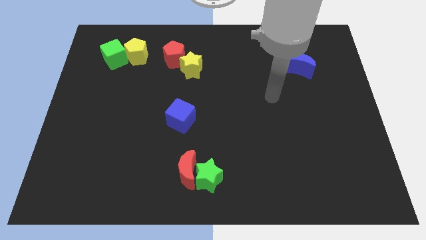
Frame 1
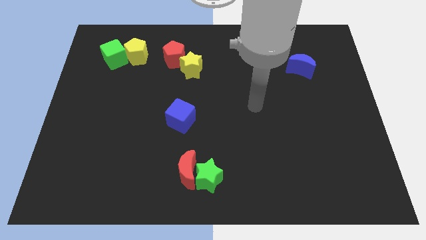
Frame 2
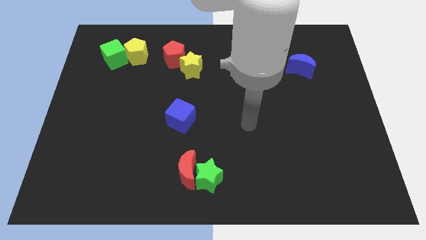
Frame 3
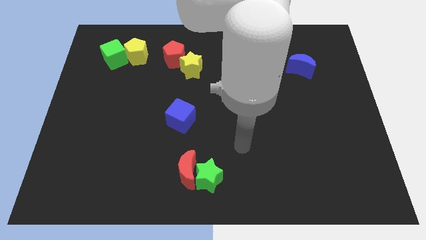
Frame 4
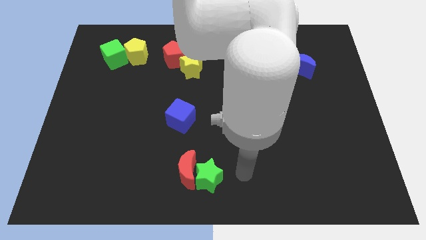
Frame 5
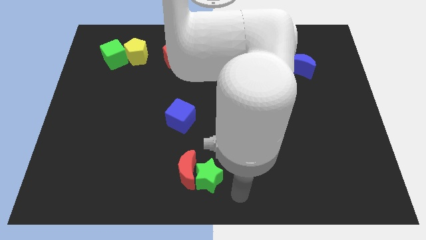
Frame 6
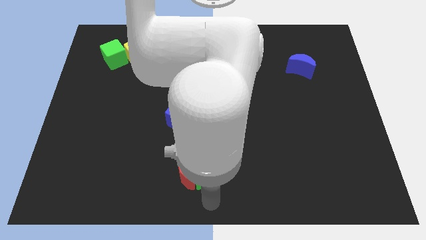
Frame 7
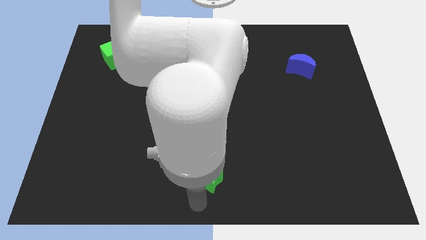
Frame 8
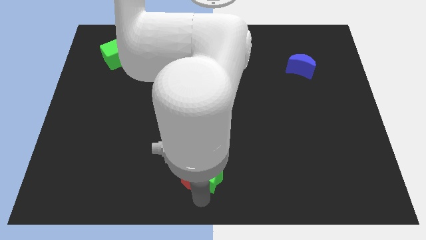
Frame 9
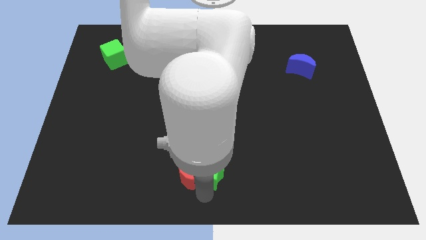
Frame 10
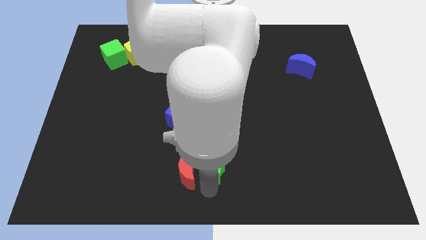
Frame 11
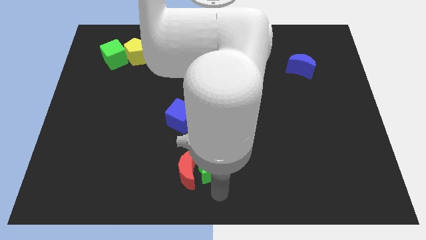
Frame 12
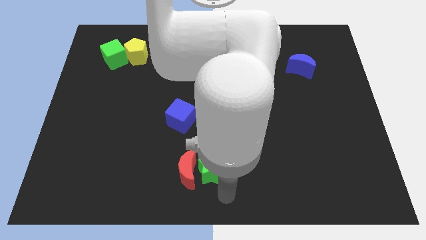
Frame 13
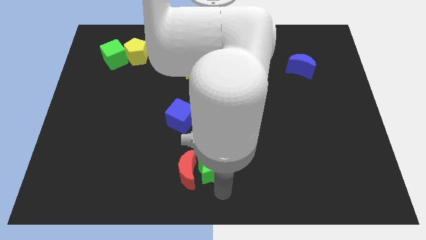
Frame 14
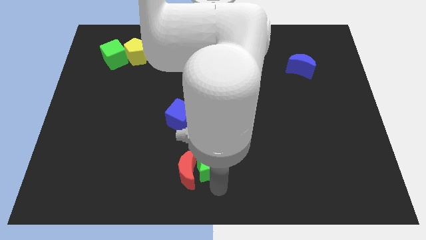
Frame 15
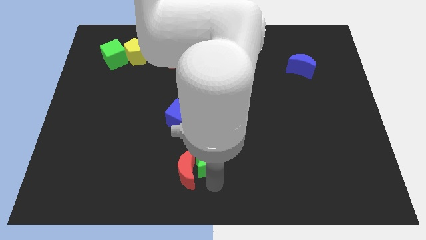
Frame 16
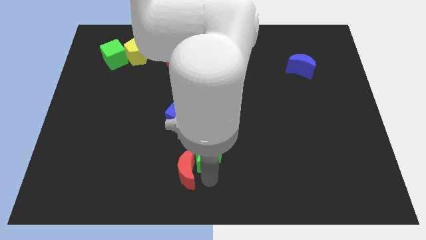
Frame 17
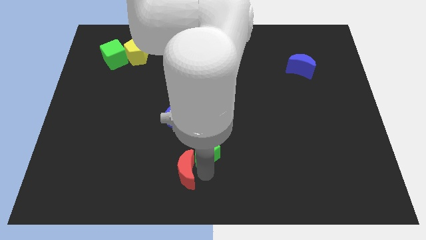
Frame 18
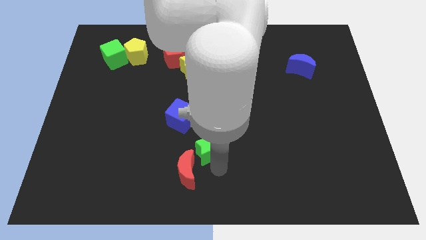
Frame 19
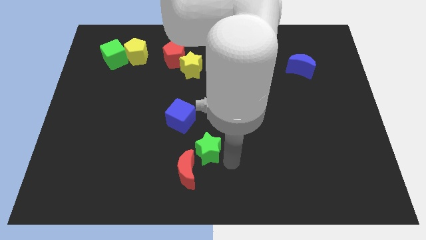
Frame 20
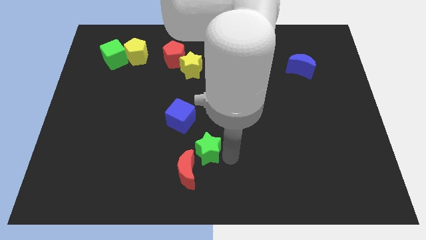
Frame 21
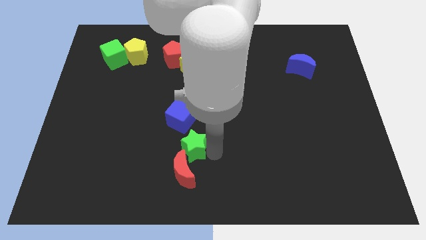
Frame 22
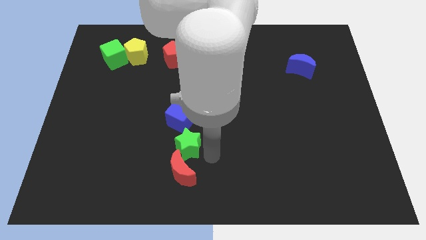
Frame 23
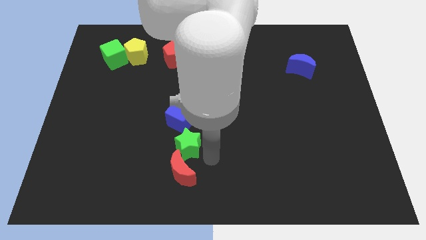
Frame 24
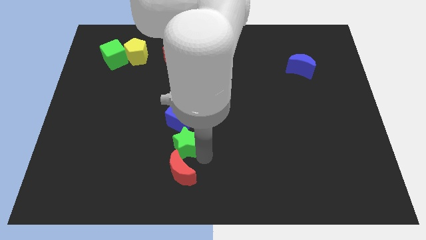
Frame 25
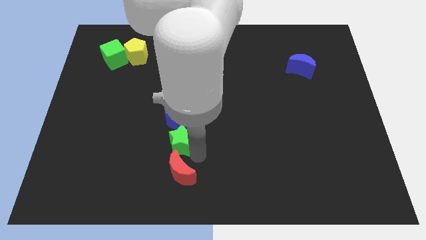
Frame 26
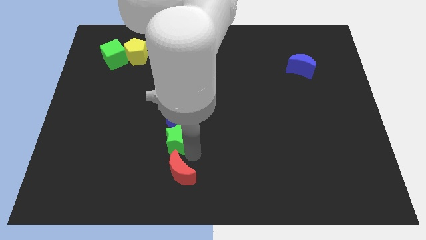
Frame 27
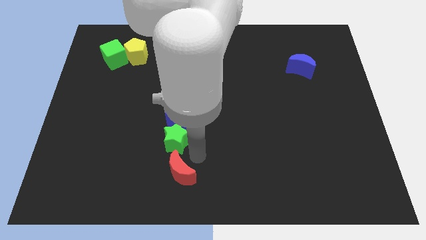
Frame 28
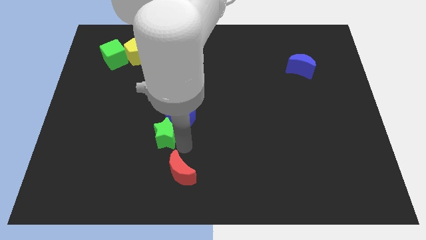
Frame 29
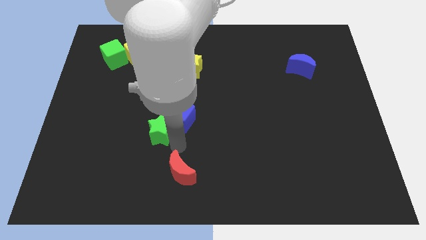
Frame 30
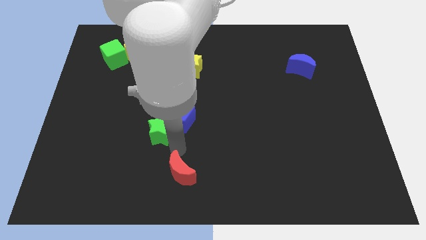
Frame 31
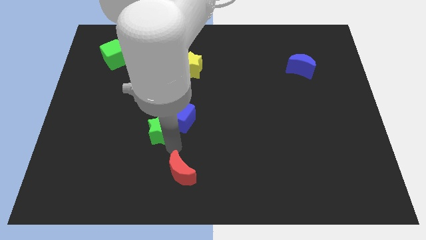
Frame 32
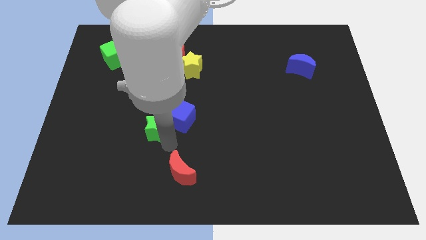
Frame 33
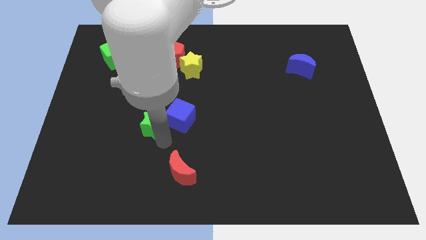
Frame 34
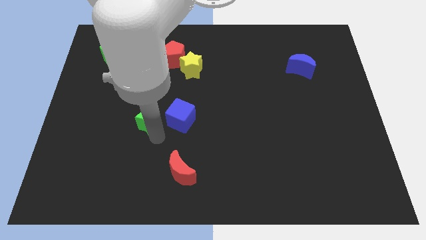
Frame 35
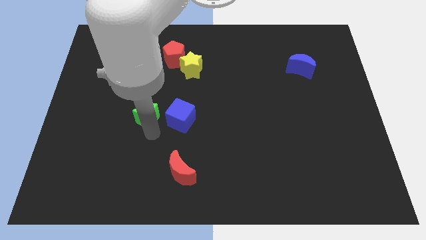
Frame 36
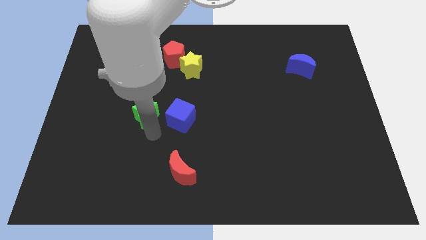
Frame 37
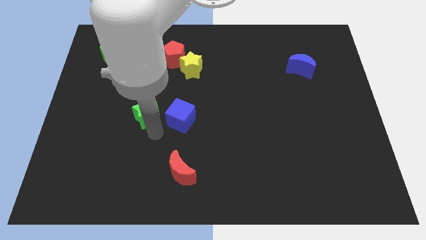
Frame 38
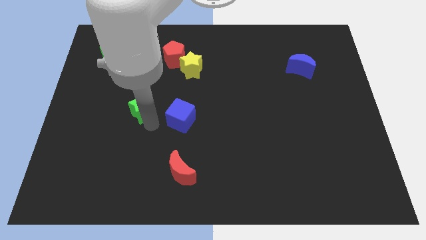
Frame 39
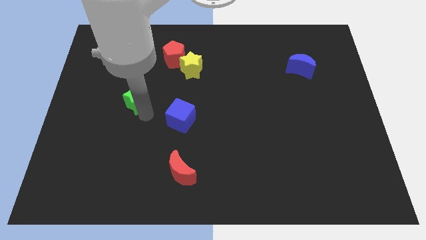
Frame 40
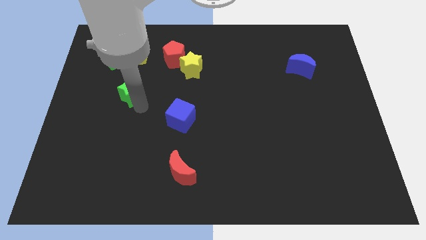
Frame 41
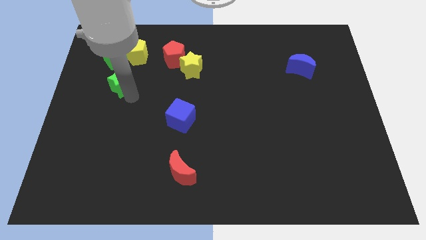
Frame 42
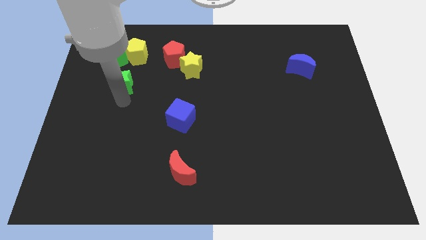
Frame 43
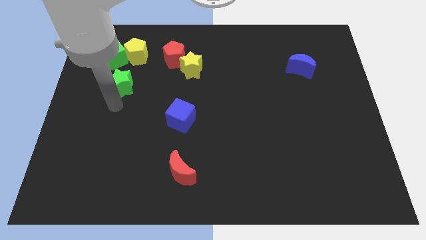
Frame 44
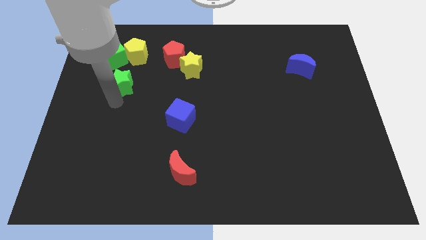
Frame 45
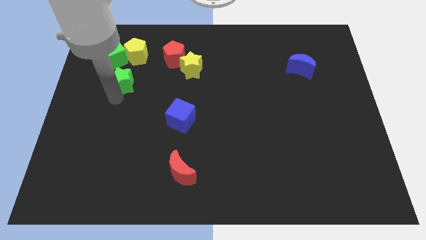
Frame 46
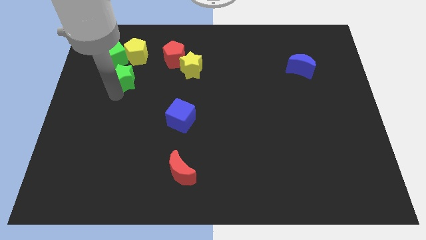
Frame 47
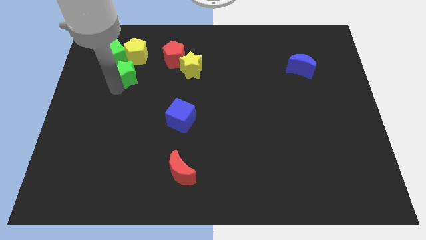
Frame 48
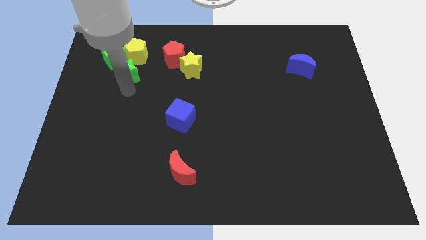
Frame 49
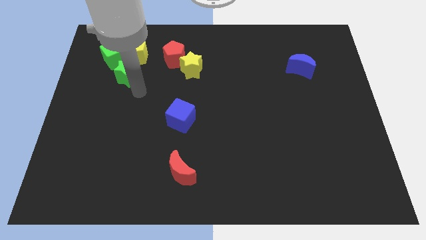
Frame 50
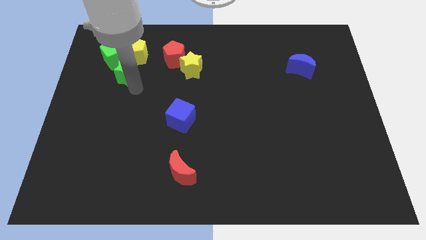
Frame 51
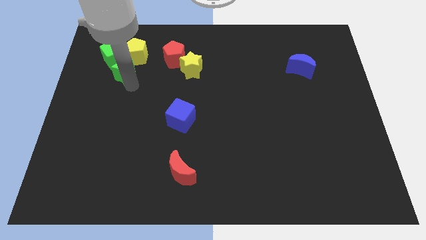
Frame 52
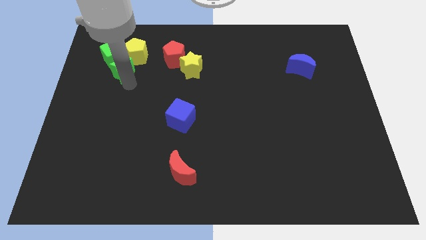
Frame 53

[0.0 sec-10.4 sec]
put the green star towards the green cube

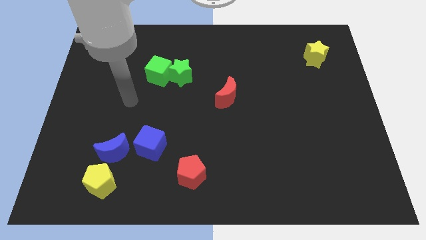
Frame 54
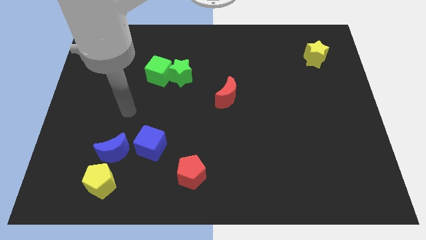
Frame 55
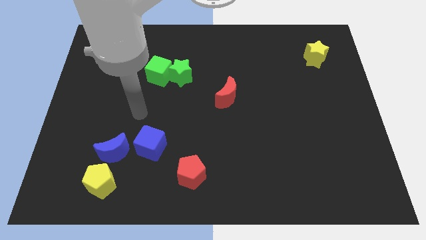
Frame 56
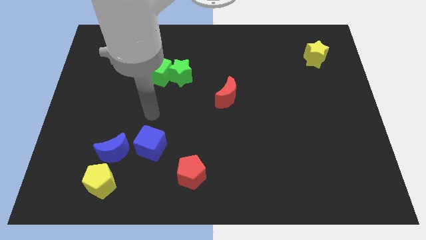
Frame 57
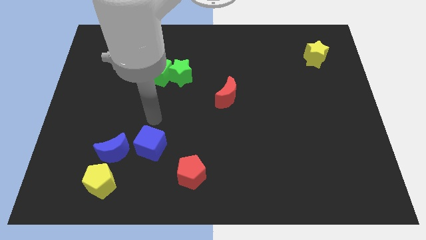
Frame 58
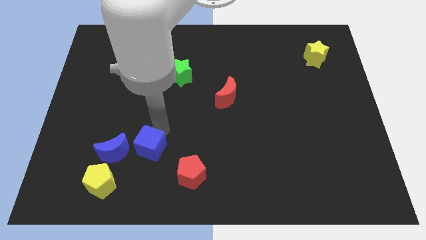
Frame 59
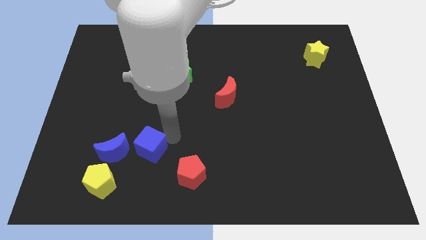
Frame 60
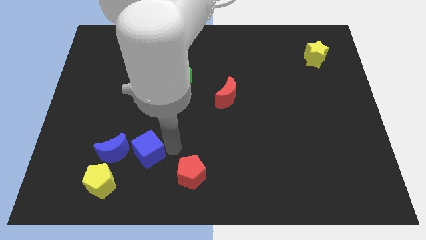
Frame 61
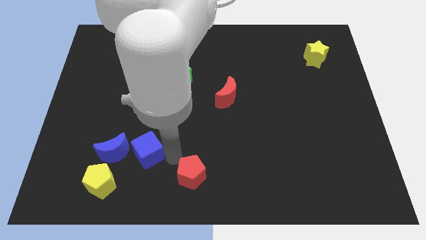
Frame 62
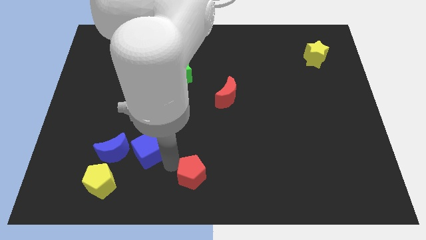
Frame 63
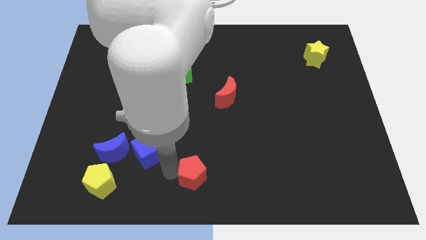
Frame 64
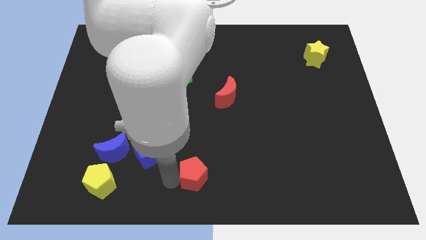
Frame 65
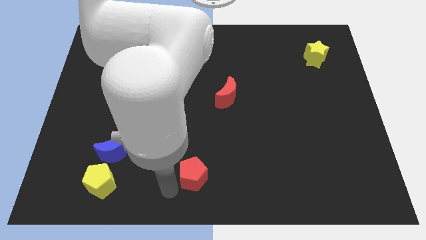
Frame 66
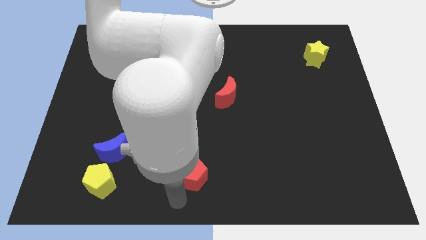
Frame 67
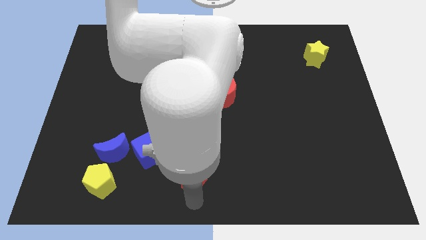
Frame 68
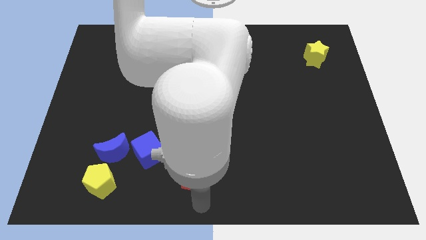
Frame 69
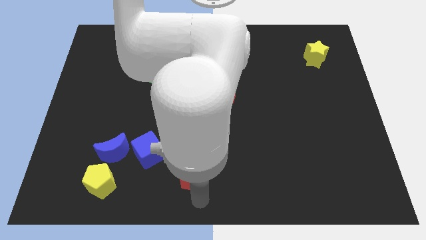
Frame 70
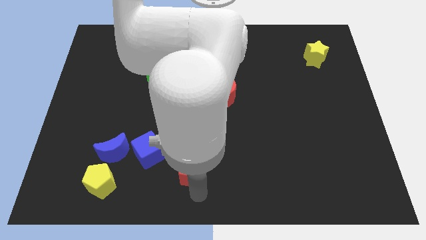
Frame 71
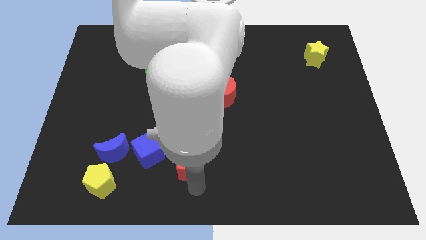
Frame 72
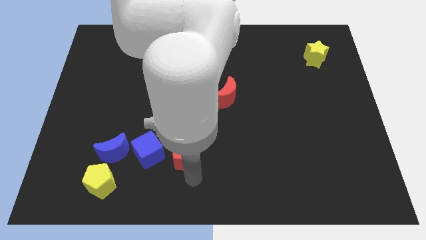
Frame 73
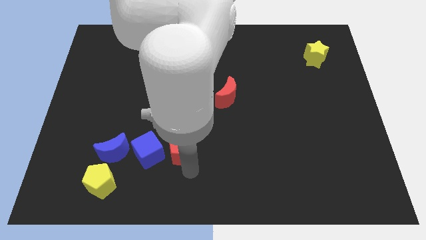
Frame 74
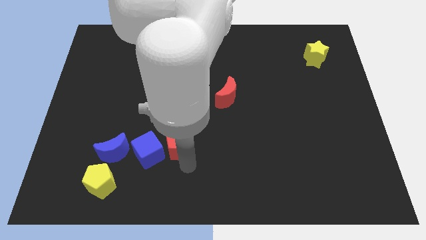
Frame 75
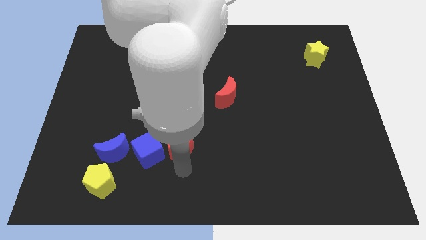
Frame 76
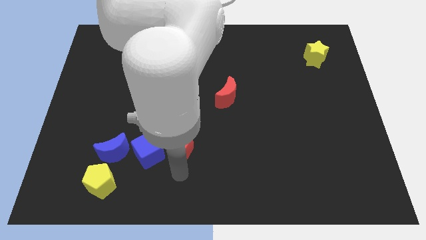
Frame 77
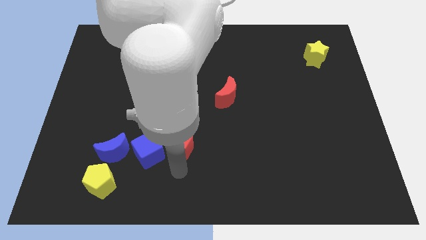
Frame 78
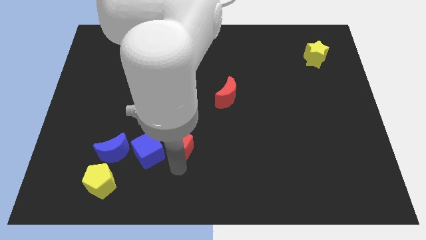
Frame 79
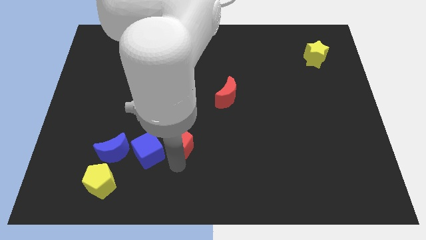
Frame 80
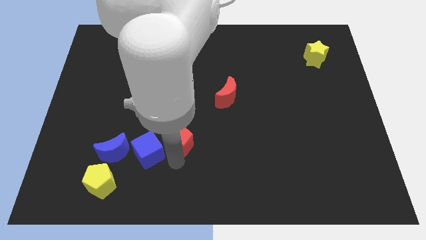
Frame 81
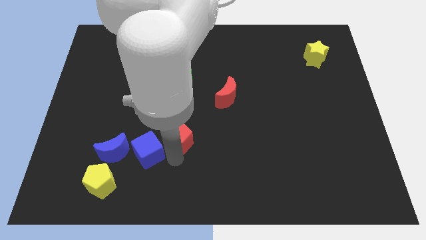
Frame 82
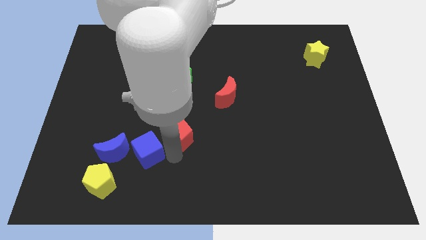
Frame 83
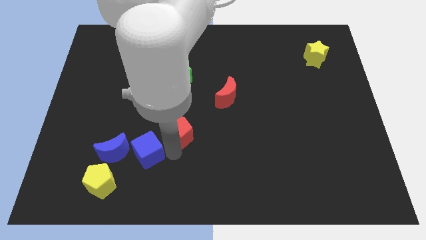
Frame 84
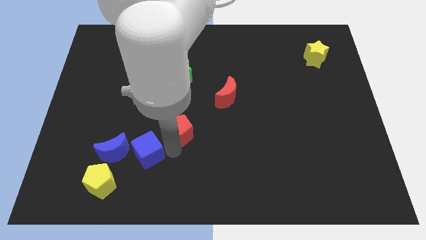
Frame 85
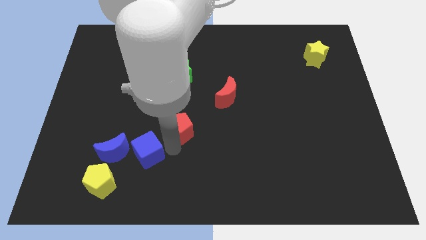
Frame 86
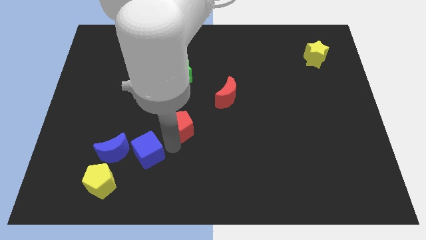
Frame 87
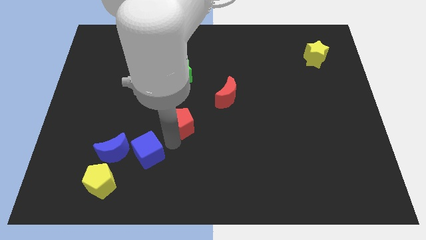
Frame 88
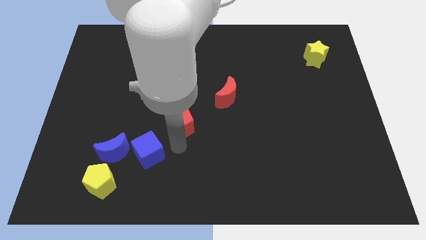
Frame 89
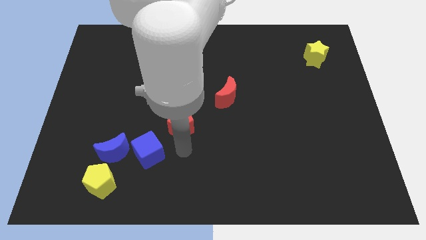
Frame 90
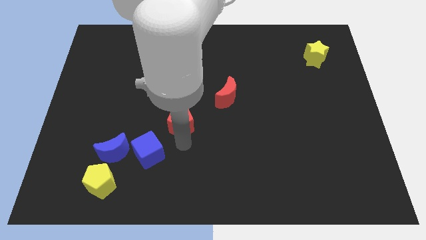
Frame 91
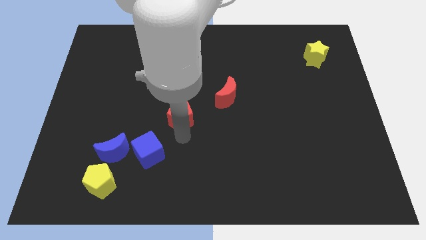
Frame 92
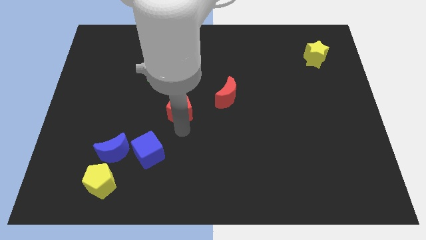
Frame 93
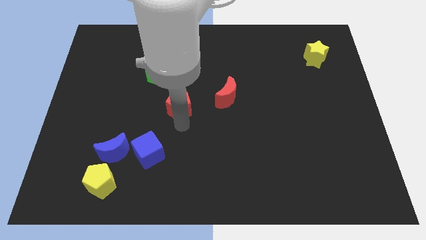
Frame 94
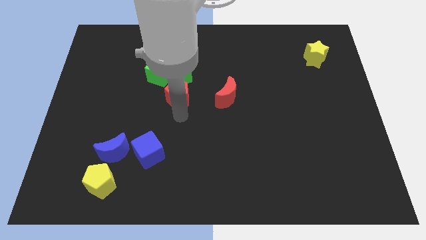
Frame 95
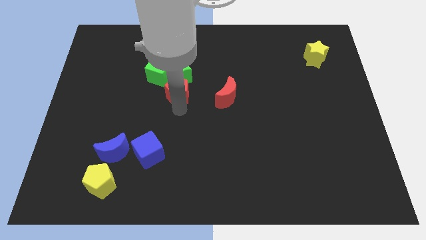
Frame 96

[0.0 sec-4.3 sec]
slide the red pentagon towards the green star
